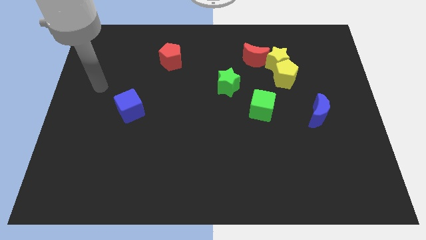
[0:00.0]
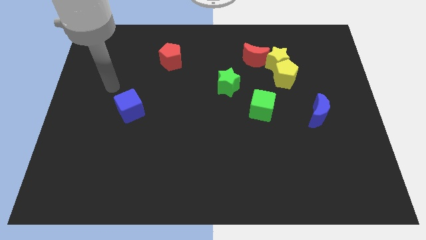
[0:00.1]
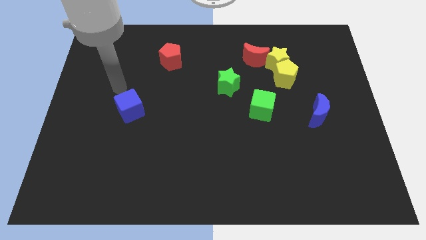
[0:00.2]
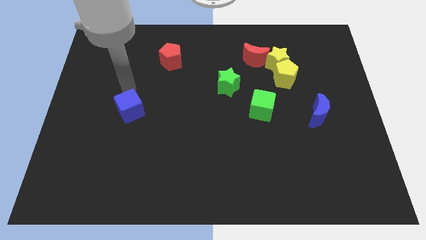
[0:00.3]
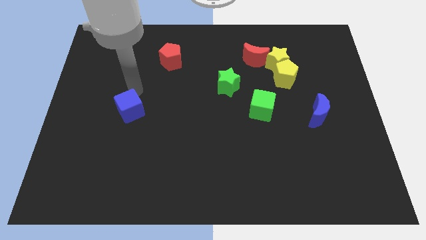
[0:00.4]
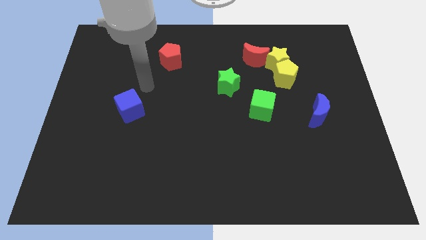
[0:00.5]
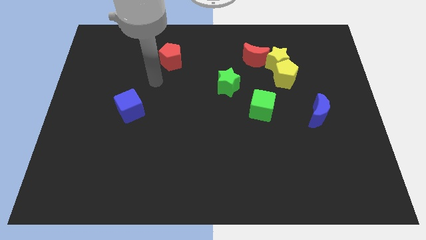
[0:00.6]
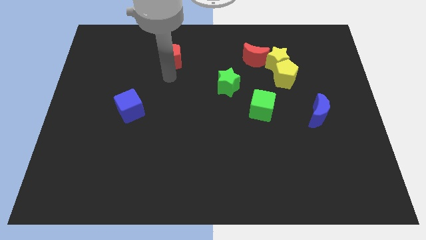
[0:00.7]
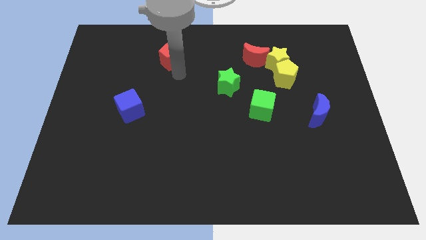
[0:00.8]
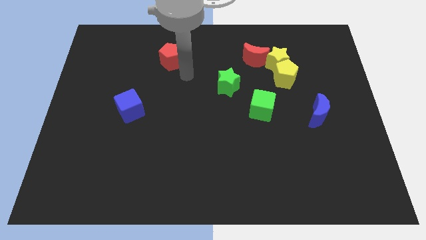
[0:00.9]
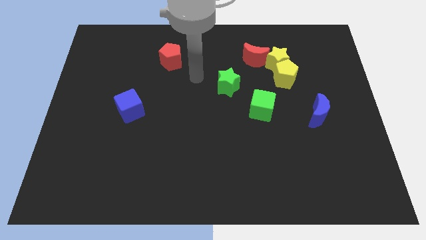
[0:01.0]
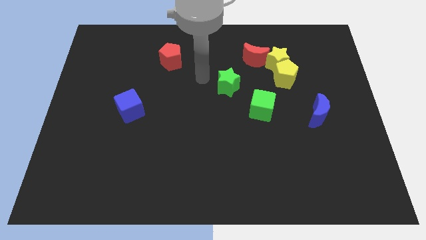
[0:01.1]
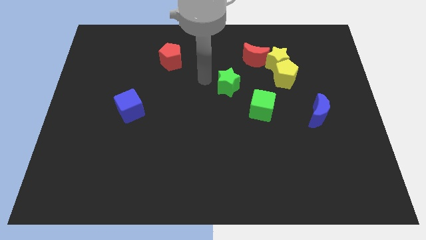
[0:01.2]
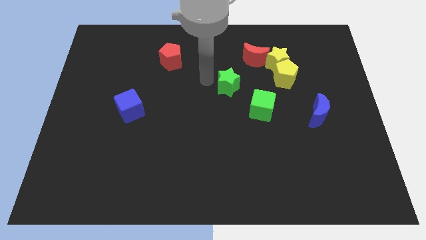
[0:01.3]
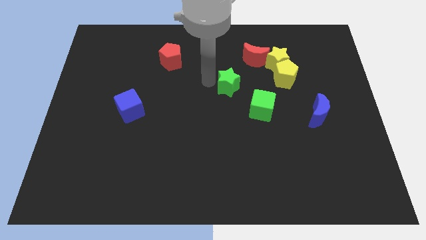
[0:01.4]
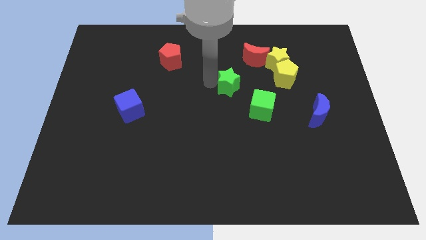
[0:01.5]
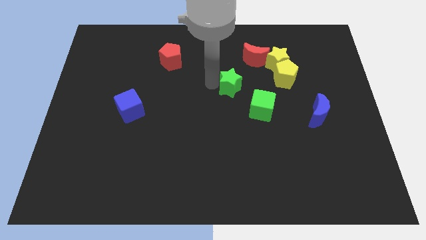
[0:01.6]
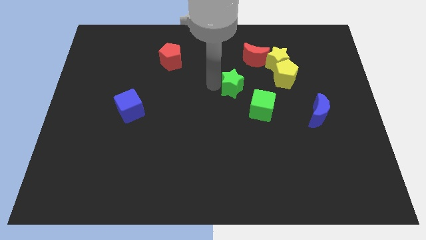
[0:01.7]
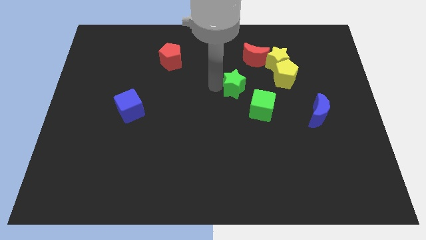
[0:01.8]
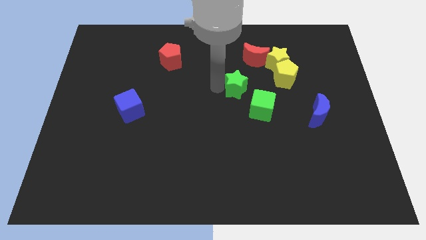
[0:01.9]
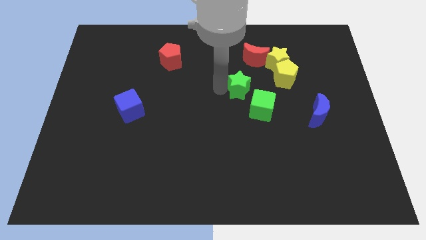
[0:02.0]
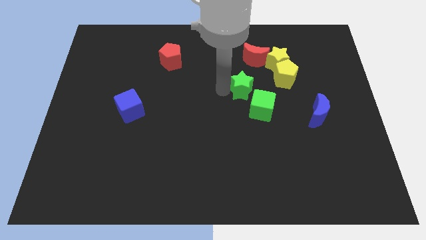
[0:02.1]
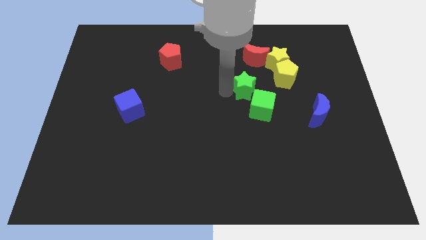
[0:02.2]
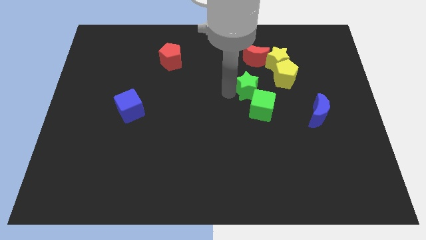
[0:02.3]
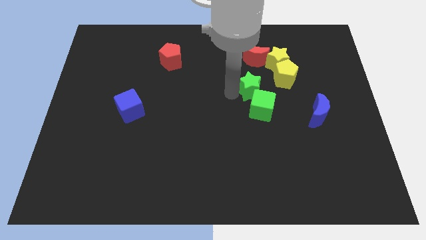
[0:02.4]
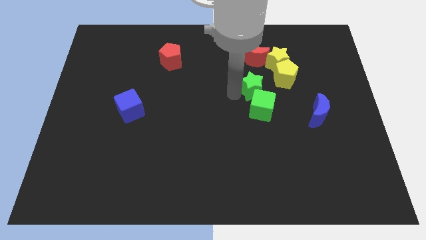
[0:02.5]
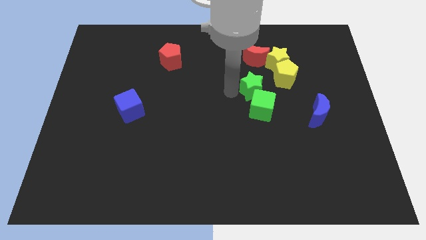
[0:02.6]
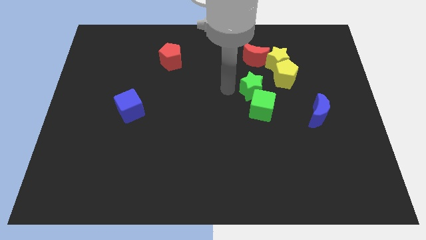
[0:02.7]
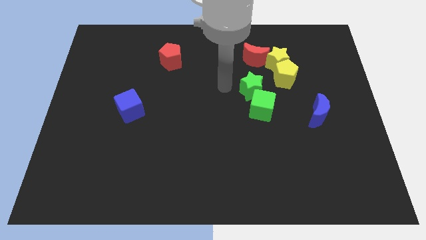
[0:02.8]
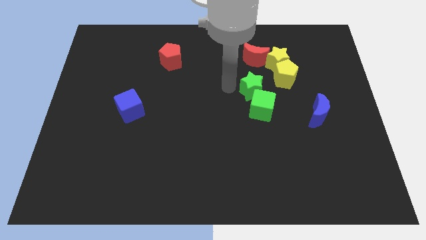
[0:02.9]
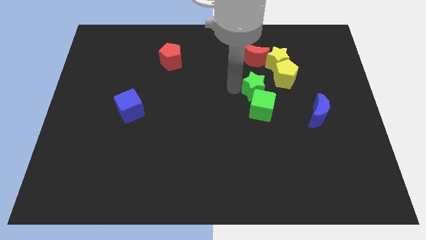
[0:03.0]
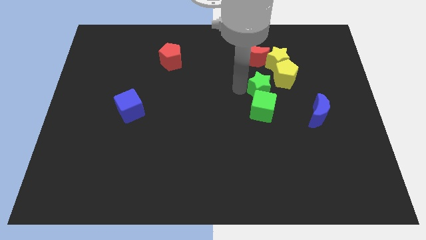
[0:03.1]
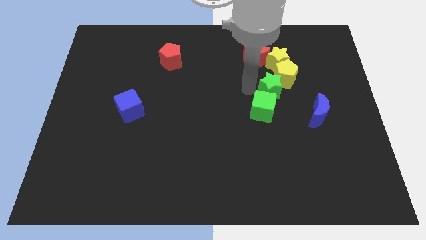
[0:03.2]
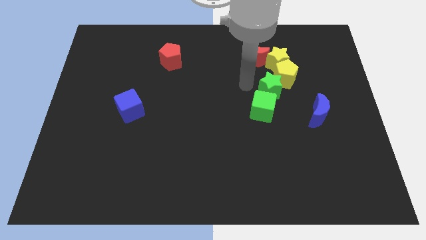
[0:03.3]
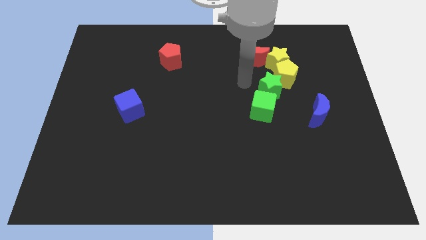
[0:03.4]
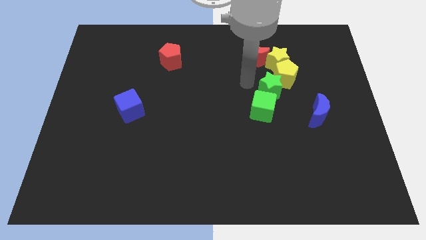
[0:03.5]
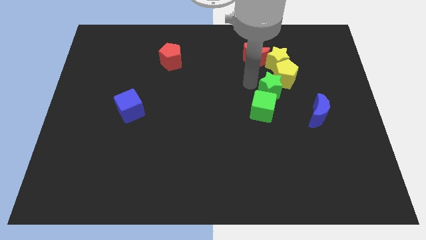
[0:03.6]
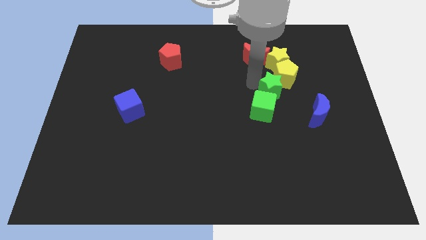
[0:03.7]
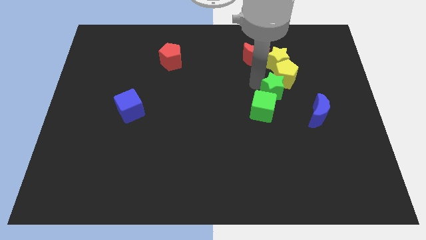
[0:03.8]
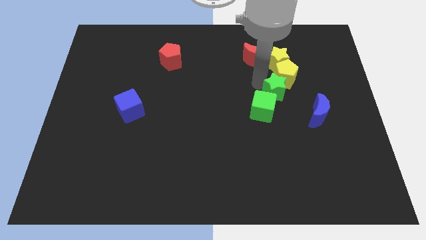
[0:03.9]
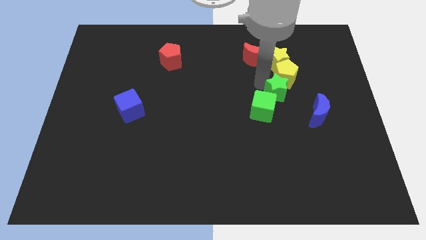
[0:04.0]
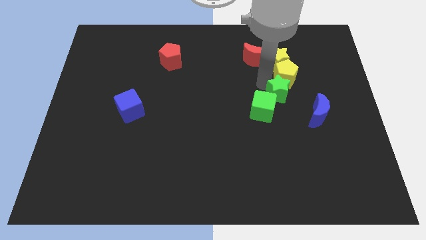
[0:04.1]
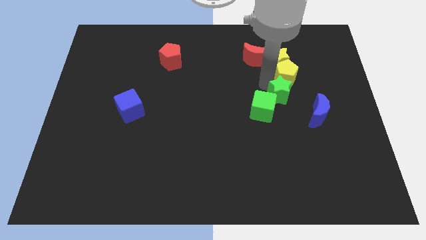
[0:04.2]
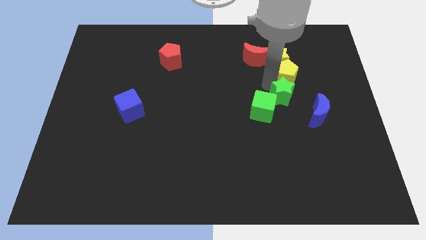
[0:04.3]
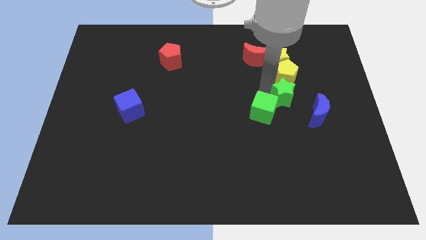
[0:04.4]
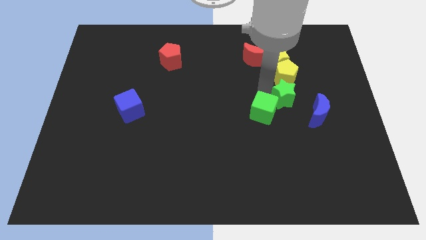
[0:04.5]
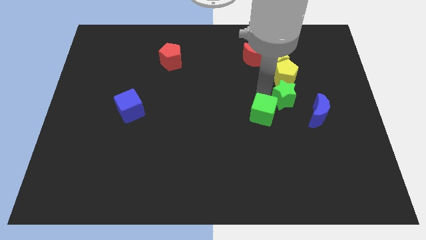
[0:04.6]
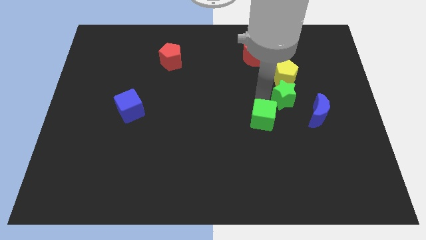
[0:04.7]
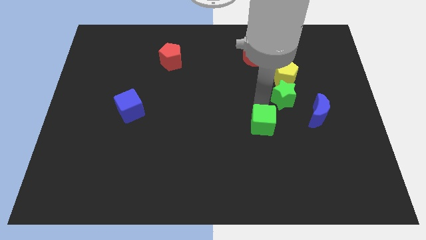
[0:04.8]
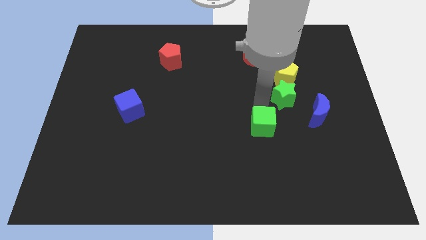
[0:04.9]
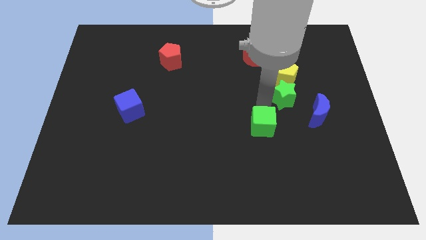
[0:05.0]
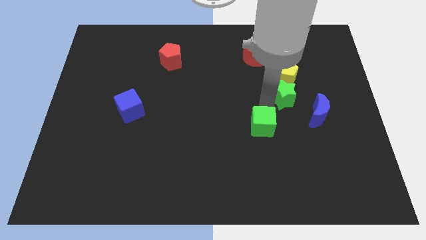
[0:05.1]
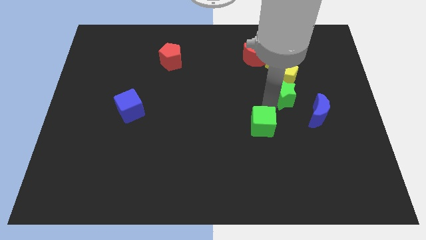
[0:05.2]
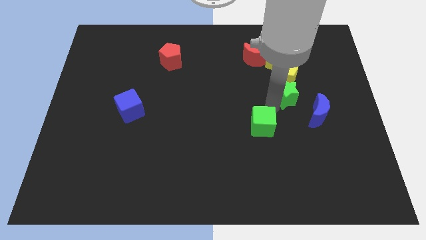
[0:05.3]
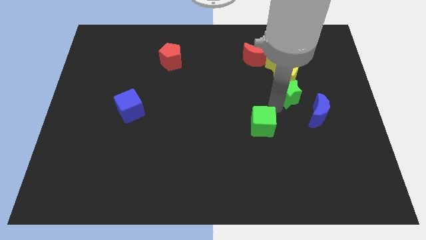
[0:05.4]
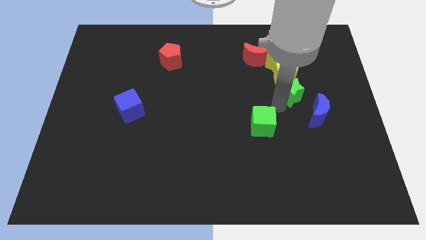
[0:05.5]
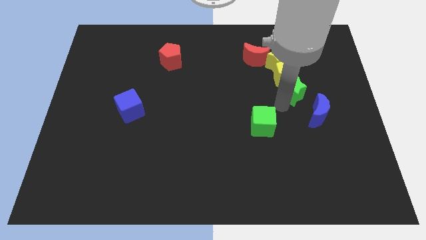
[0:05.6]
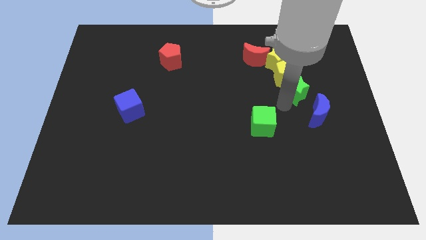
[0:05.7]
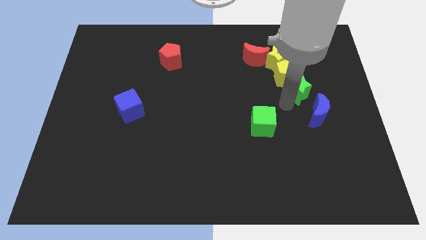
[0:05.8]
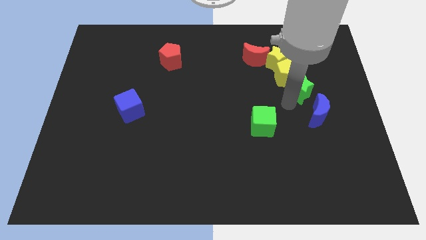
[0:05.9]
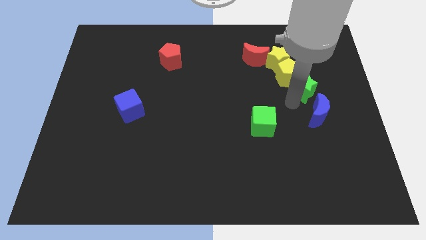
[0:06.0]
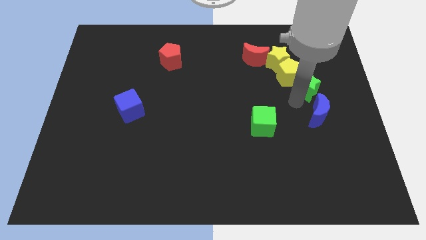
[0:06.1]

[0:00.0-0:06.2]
slide the green star right of the yellow pentagon
